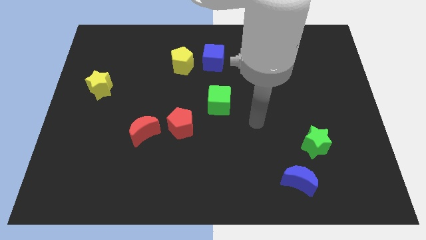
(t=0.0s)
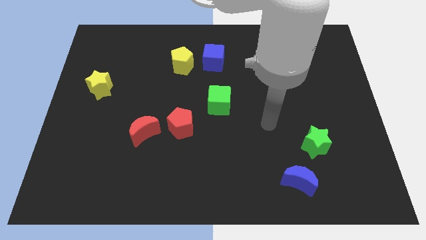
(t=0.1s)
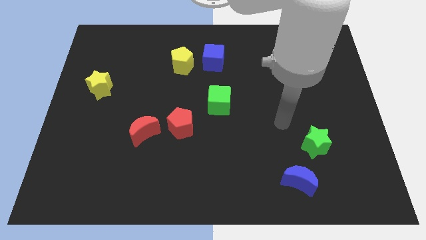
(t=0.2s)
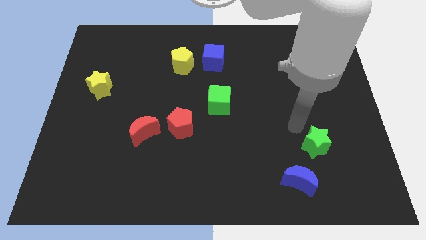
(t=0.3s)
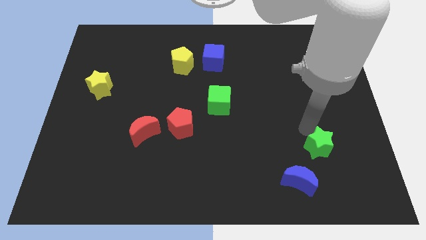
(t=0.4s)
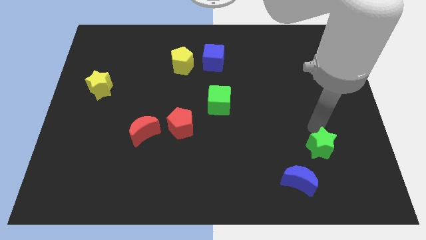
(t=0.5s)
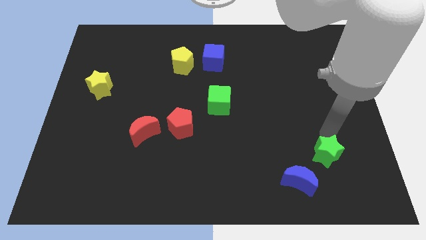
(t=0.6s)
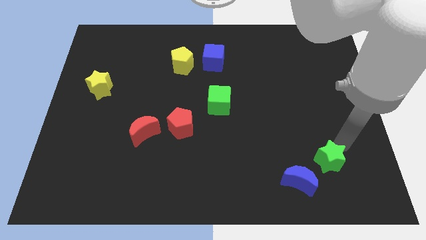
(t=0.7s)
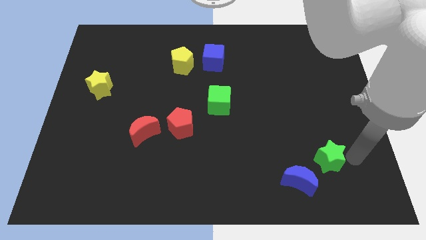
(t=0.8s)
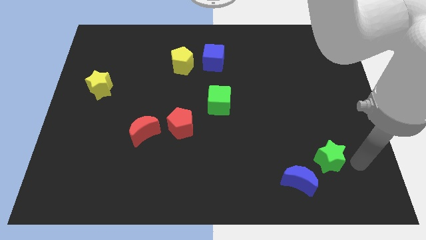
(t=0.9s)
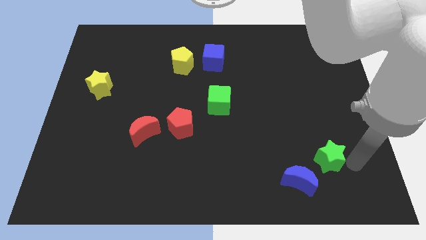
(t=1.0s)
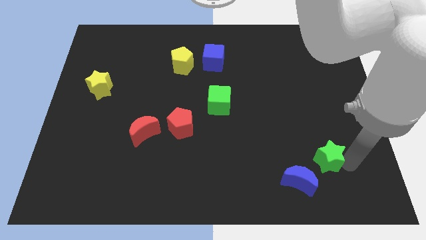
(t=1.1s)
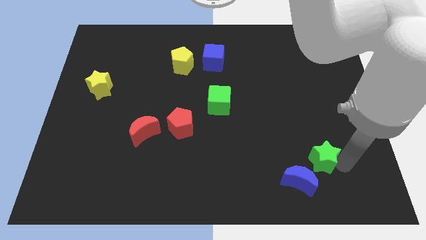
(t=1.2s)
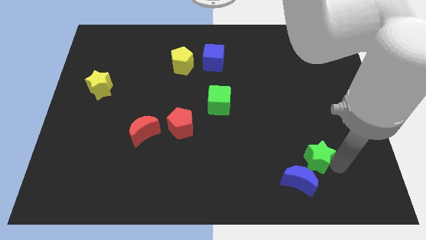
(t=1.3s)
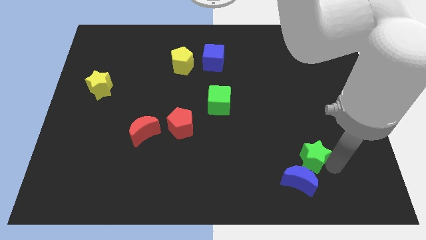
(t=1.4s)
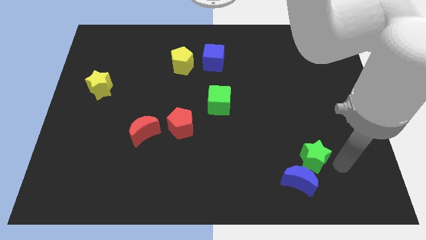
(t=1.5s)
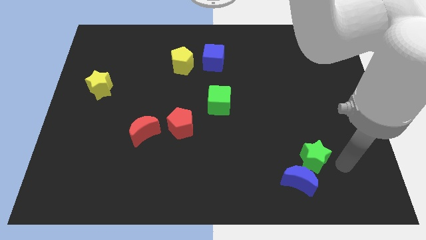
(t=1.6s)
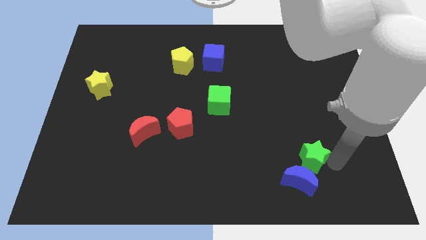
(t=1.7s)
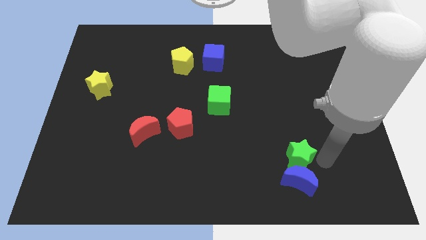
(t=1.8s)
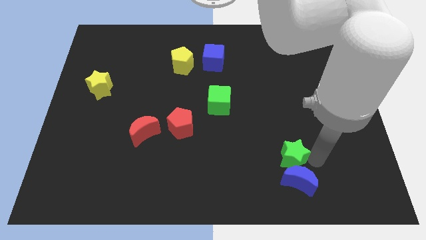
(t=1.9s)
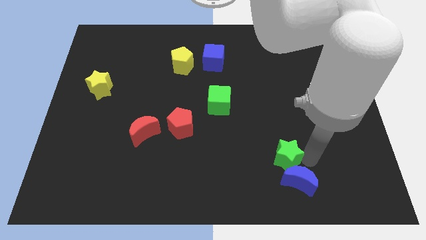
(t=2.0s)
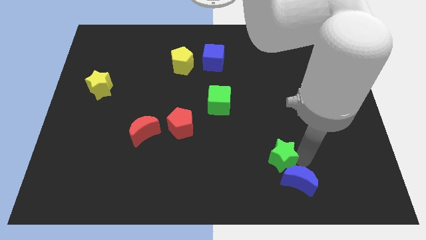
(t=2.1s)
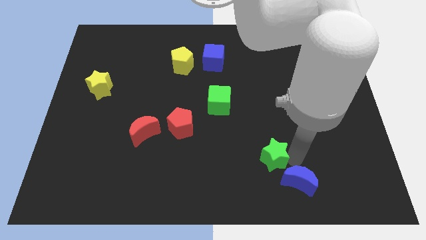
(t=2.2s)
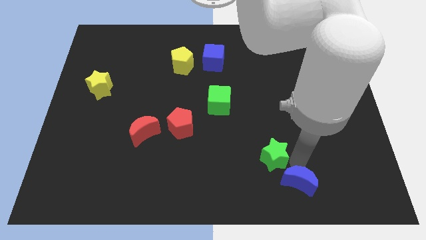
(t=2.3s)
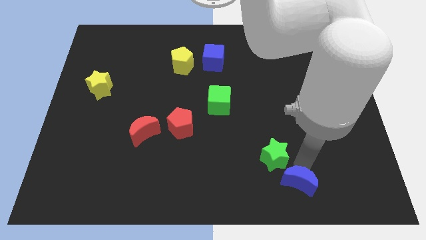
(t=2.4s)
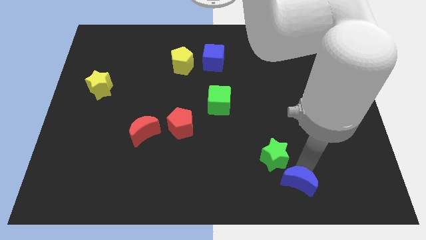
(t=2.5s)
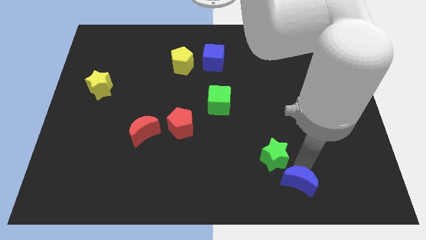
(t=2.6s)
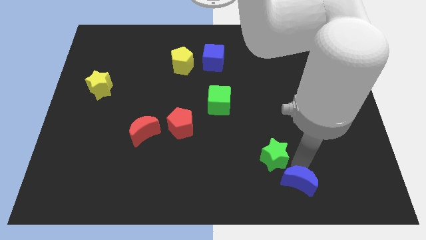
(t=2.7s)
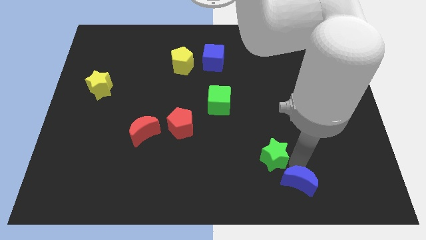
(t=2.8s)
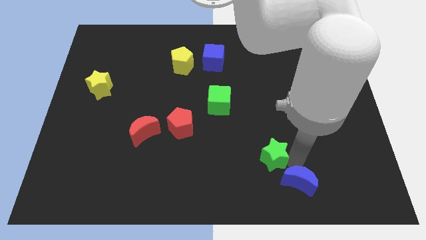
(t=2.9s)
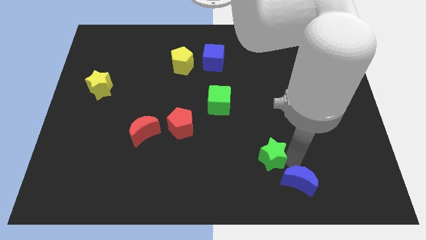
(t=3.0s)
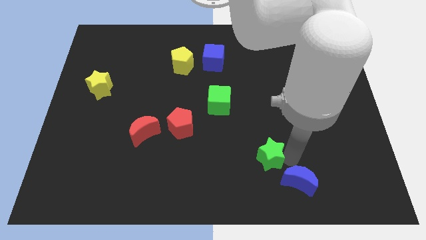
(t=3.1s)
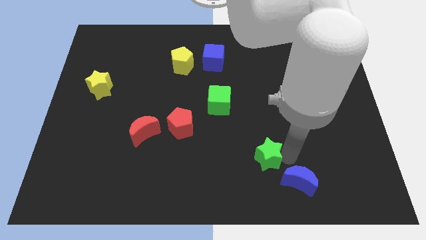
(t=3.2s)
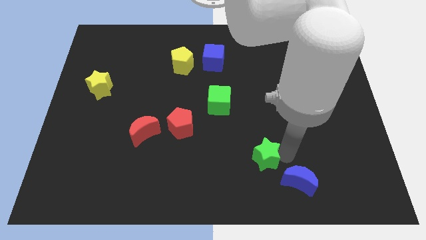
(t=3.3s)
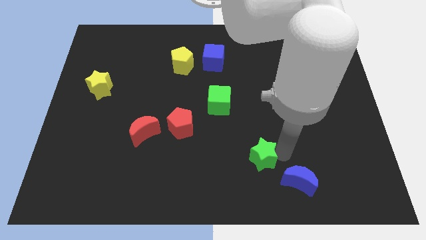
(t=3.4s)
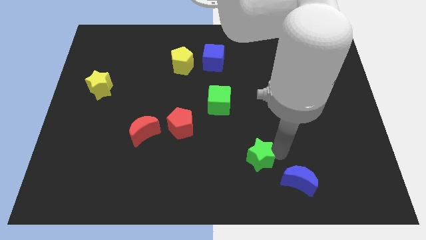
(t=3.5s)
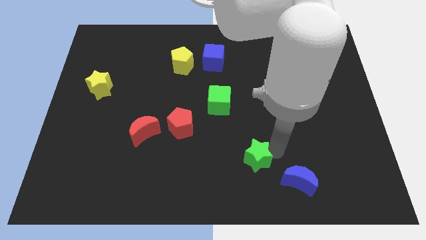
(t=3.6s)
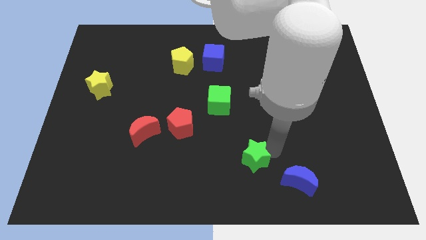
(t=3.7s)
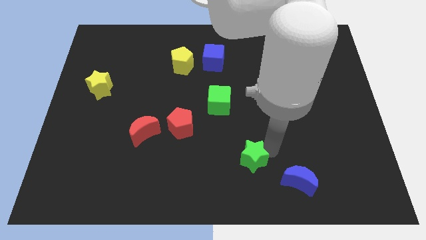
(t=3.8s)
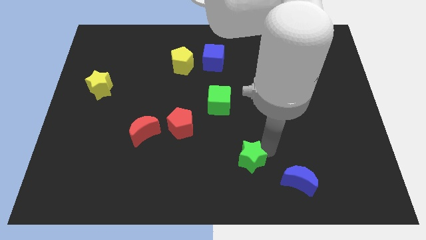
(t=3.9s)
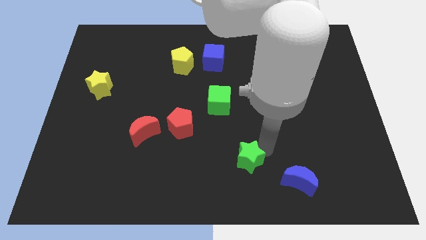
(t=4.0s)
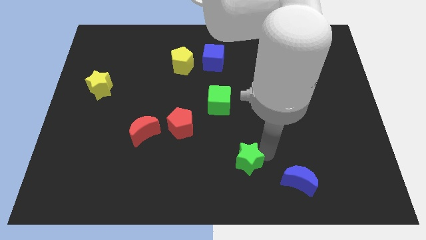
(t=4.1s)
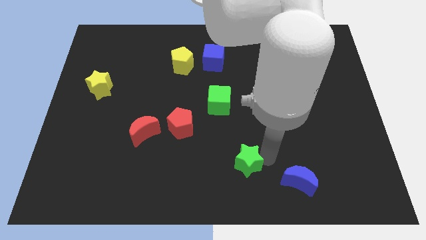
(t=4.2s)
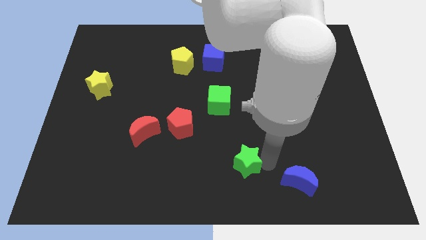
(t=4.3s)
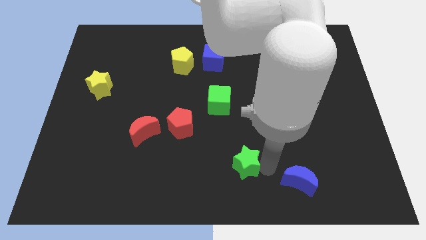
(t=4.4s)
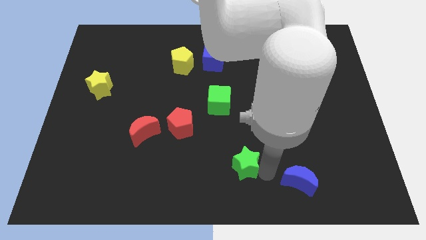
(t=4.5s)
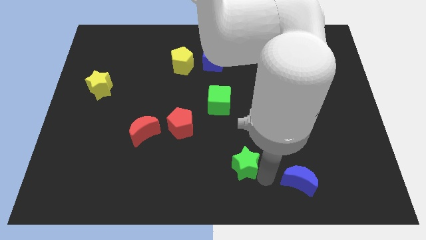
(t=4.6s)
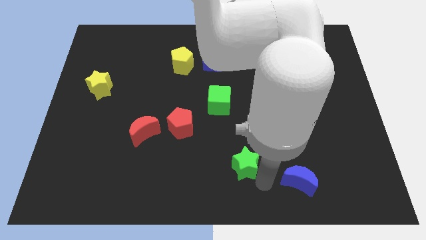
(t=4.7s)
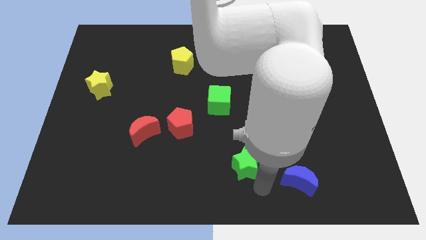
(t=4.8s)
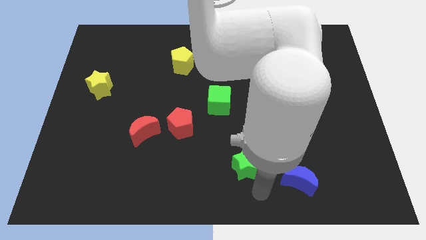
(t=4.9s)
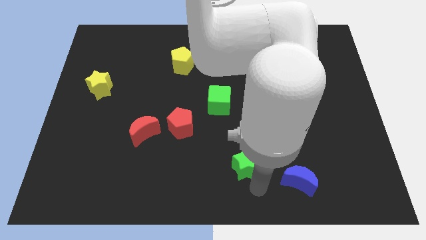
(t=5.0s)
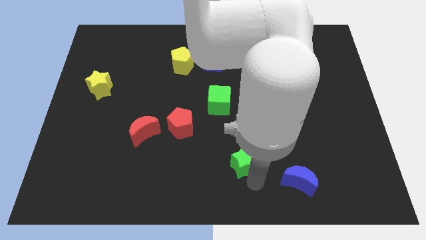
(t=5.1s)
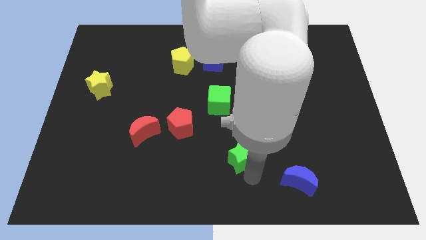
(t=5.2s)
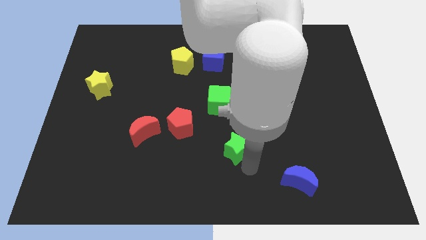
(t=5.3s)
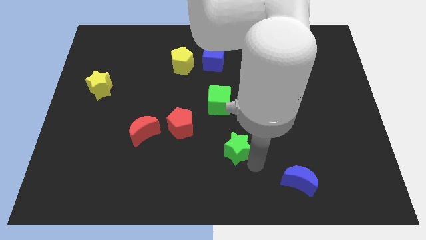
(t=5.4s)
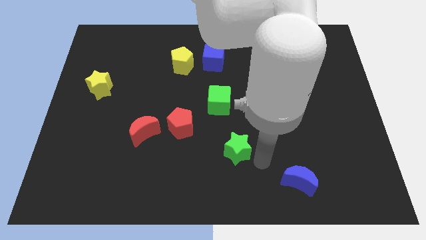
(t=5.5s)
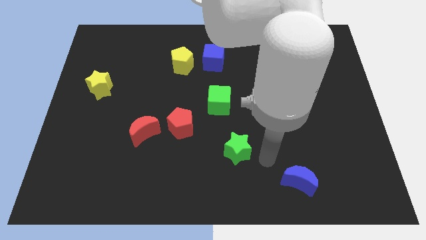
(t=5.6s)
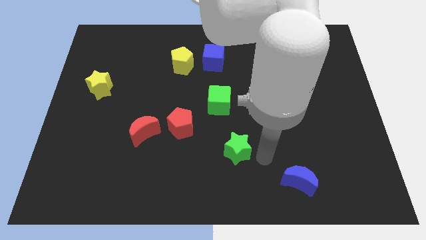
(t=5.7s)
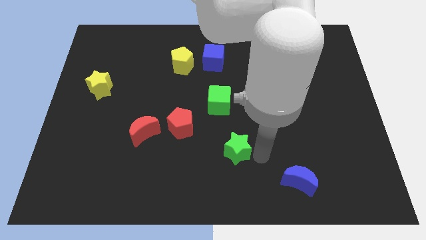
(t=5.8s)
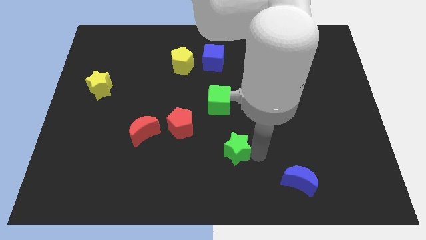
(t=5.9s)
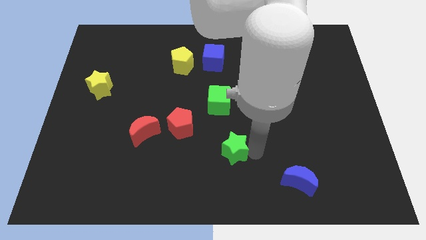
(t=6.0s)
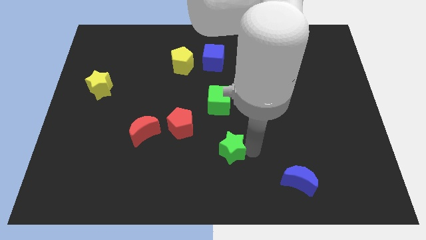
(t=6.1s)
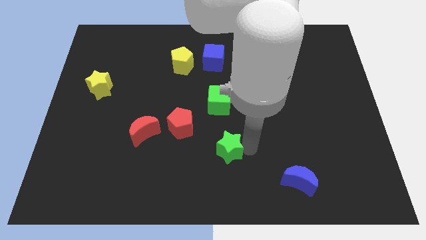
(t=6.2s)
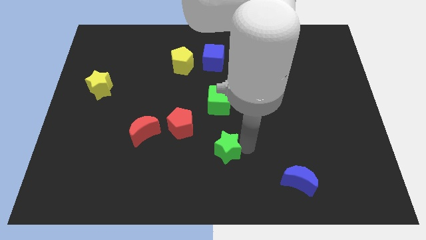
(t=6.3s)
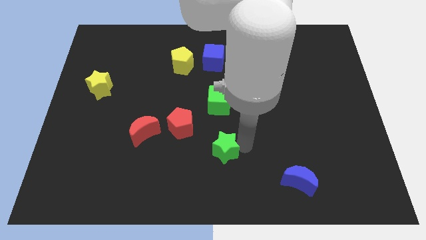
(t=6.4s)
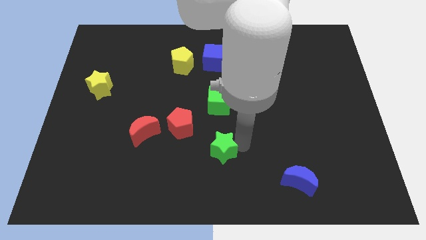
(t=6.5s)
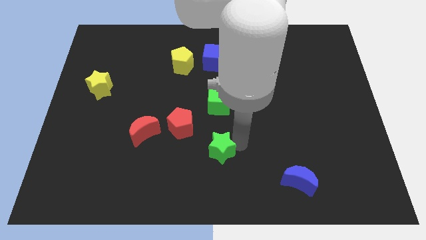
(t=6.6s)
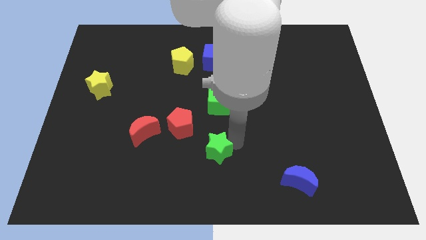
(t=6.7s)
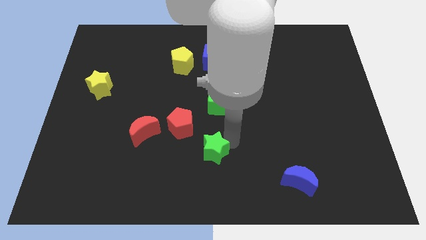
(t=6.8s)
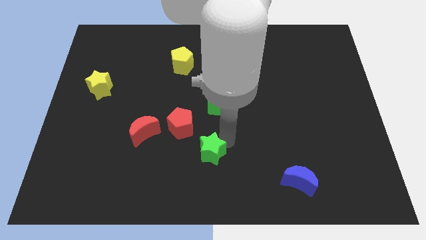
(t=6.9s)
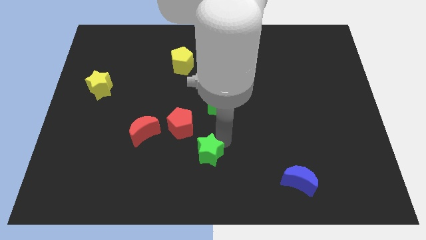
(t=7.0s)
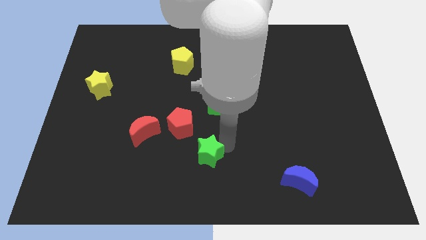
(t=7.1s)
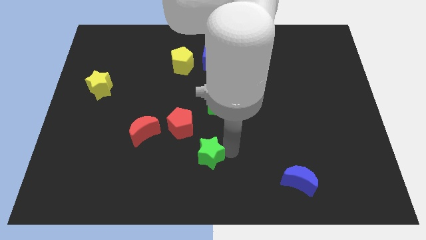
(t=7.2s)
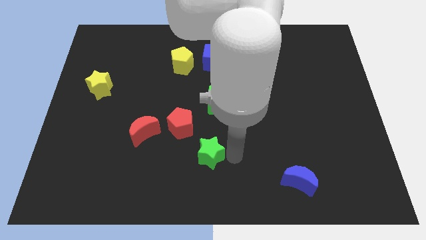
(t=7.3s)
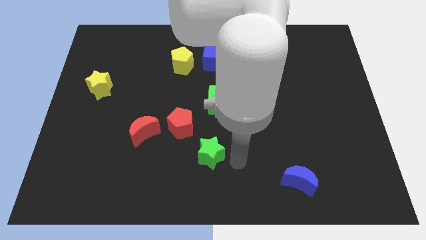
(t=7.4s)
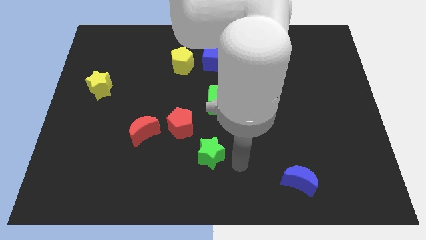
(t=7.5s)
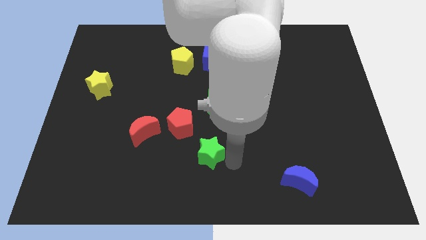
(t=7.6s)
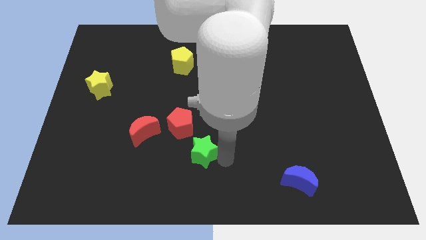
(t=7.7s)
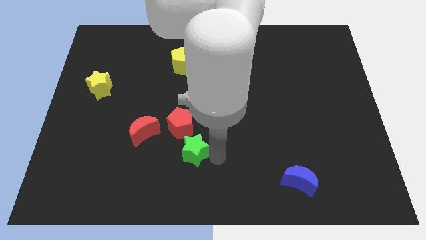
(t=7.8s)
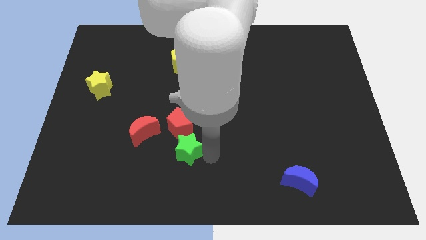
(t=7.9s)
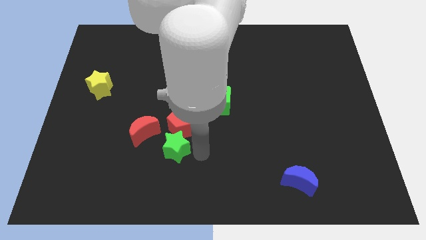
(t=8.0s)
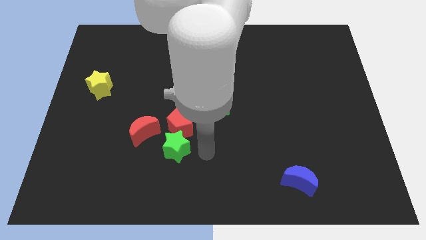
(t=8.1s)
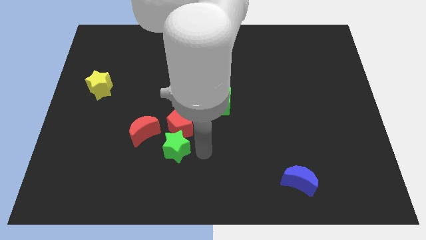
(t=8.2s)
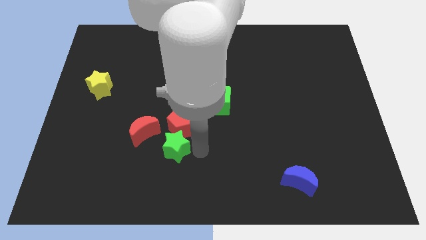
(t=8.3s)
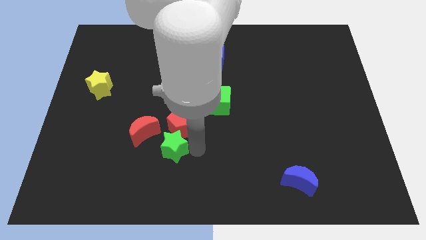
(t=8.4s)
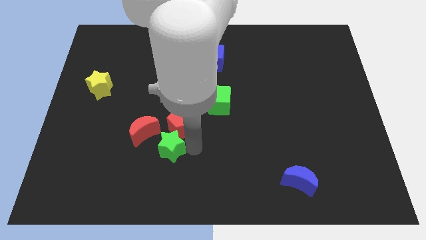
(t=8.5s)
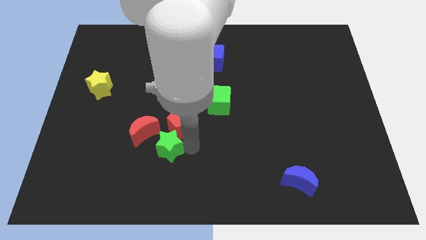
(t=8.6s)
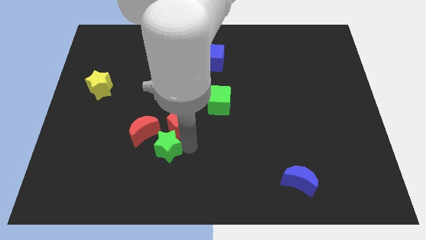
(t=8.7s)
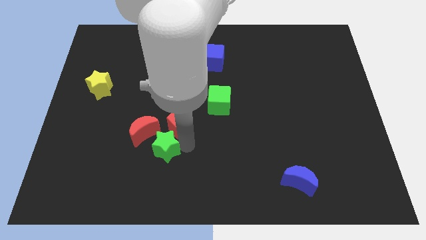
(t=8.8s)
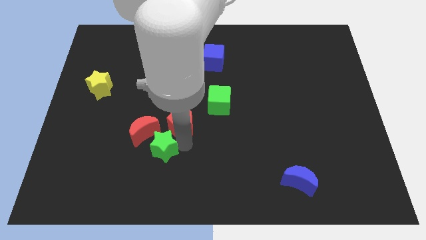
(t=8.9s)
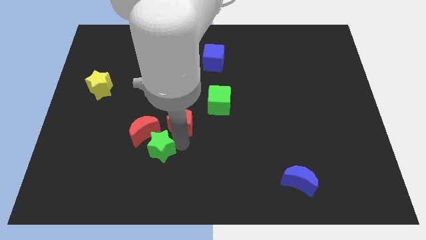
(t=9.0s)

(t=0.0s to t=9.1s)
move the green star to the red moon
